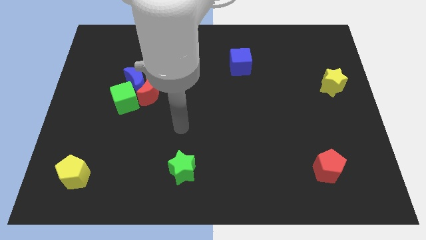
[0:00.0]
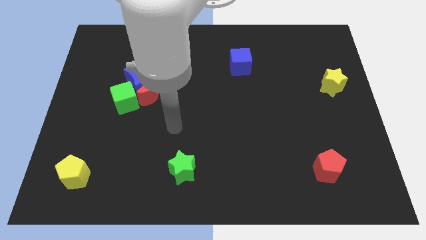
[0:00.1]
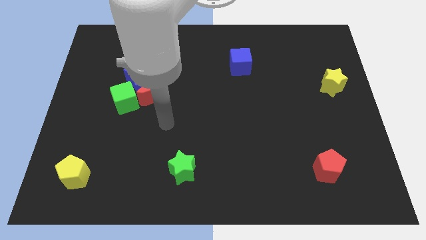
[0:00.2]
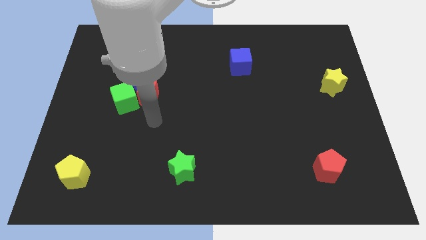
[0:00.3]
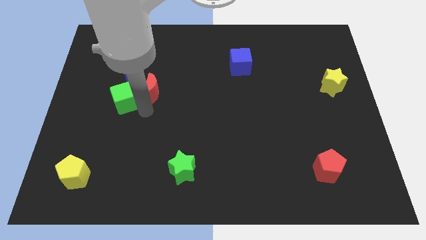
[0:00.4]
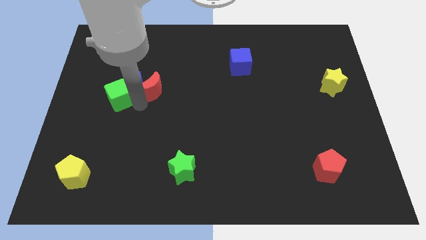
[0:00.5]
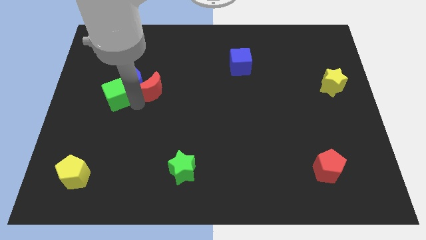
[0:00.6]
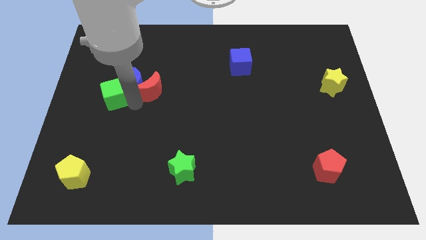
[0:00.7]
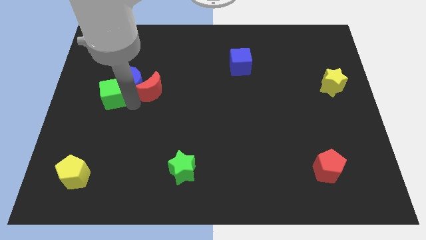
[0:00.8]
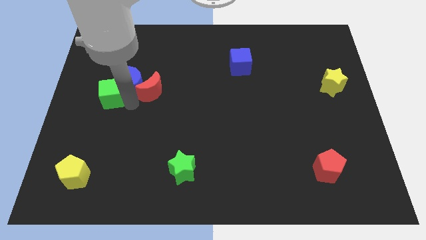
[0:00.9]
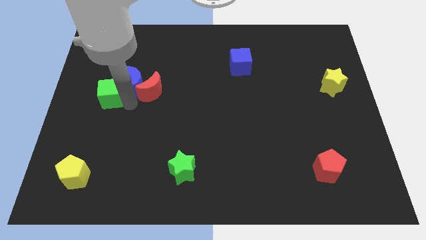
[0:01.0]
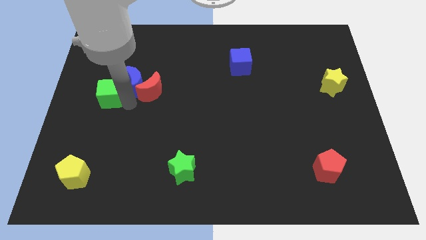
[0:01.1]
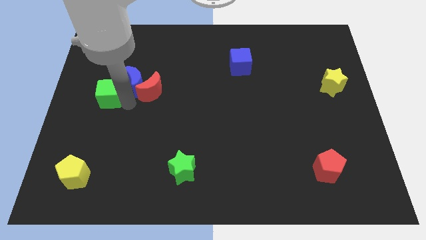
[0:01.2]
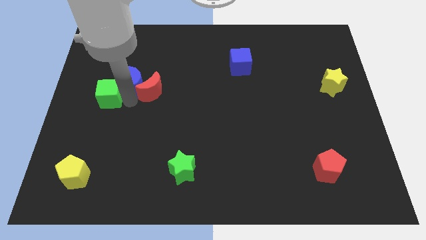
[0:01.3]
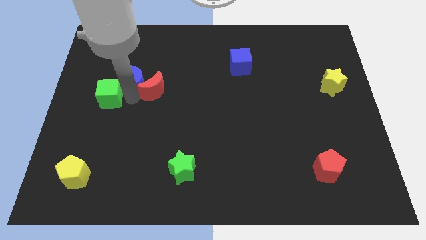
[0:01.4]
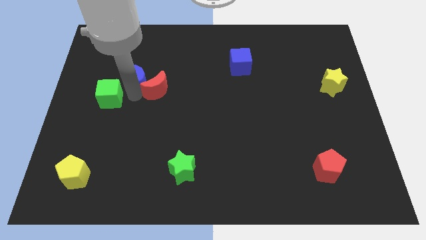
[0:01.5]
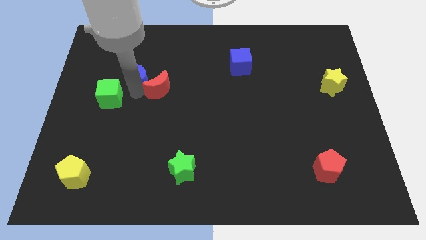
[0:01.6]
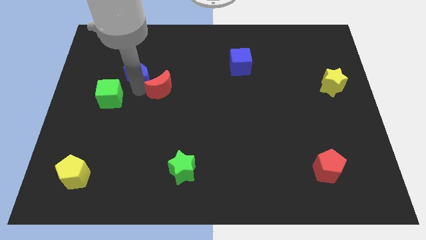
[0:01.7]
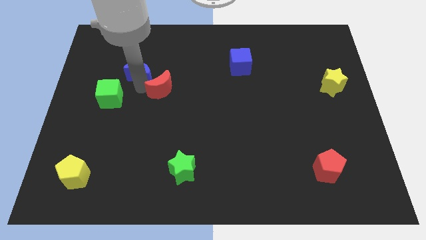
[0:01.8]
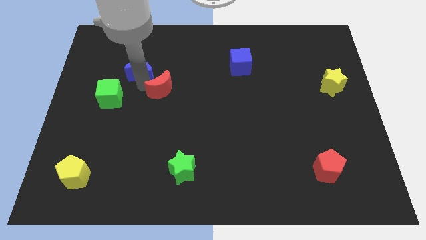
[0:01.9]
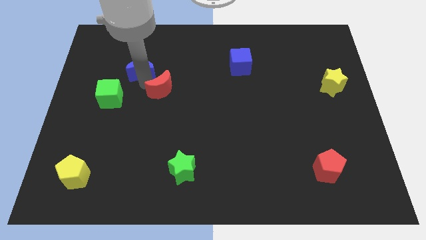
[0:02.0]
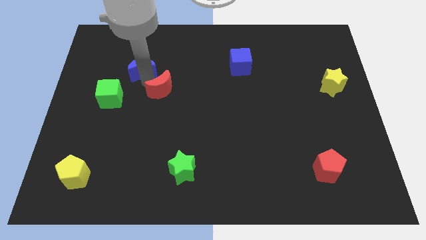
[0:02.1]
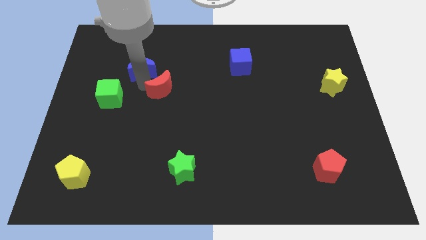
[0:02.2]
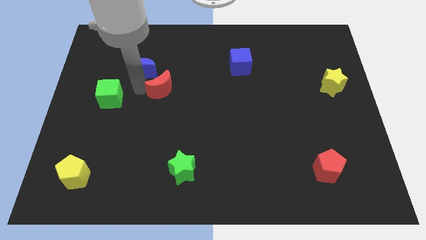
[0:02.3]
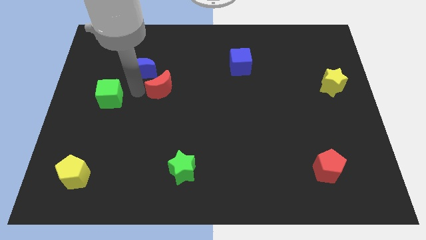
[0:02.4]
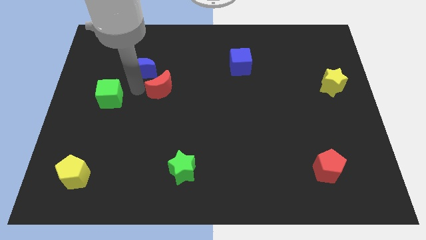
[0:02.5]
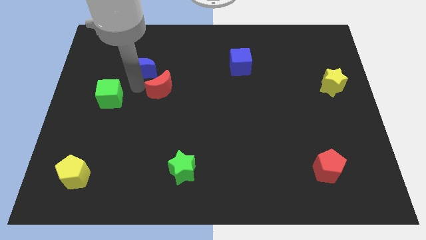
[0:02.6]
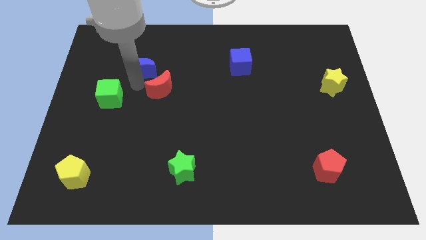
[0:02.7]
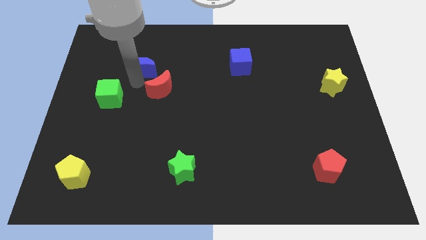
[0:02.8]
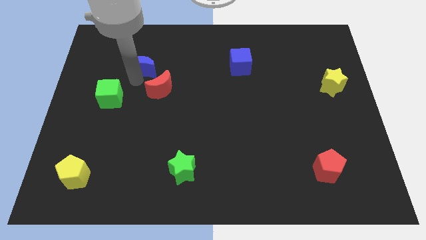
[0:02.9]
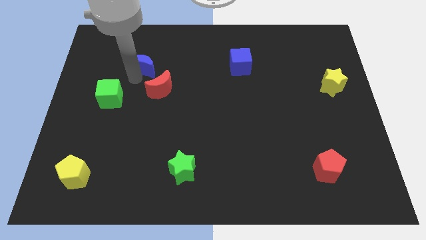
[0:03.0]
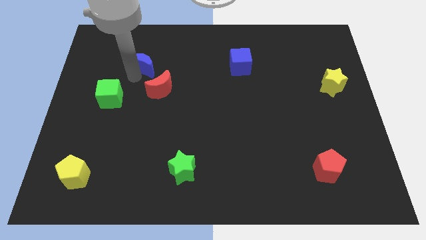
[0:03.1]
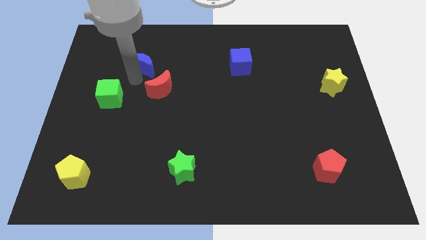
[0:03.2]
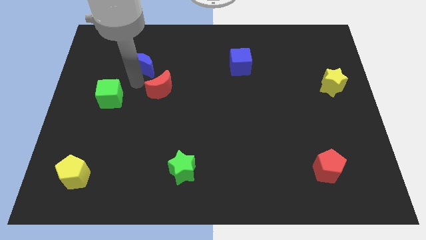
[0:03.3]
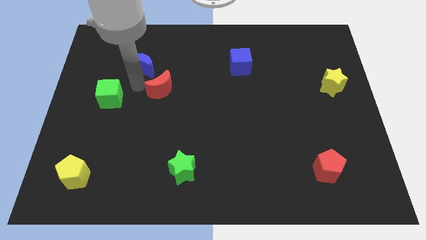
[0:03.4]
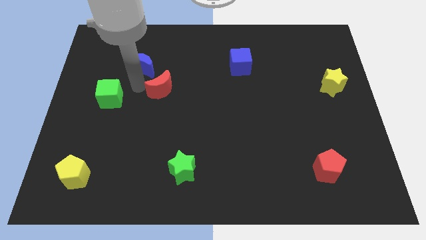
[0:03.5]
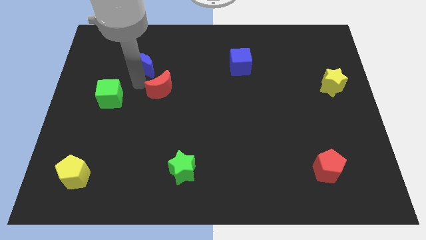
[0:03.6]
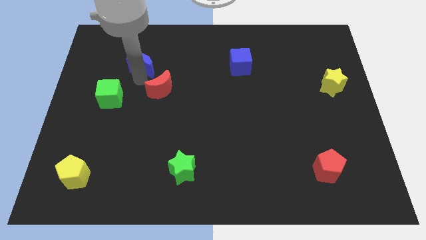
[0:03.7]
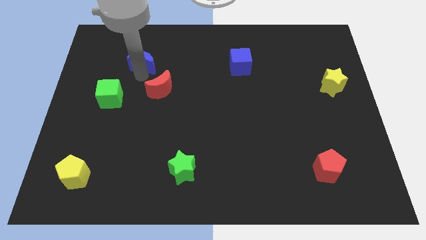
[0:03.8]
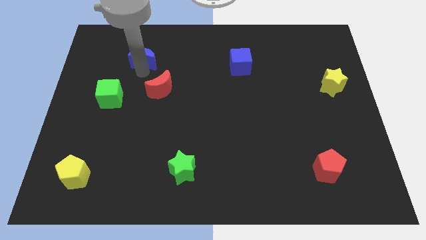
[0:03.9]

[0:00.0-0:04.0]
pull the blue moon apart from the red moon and green cube

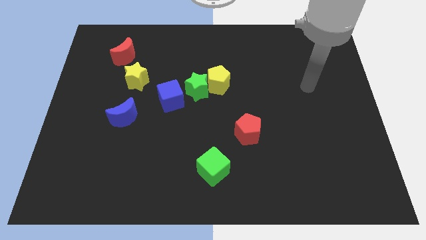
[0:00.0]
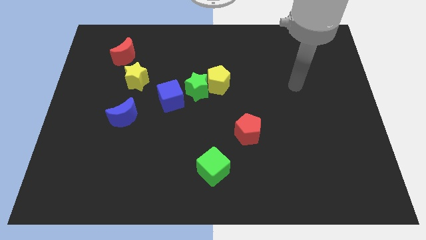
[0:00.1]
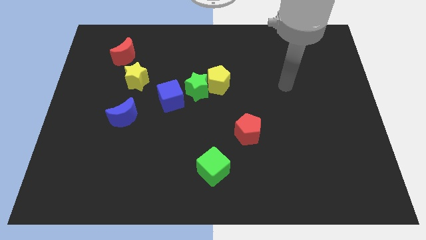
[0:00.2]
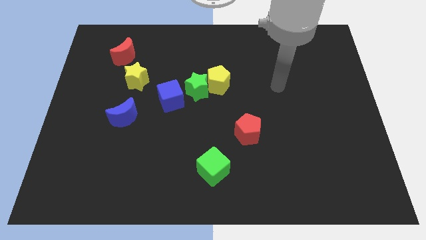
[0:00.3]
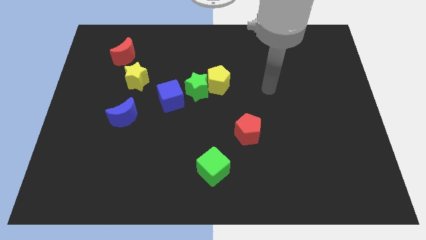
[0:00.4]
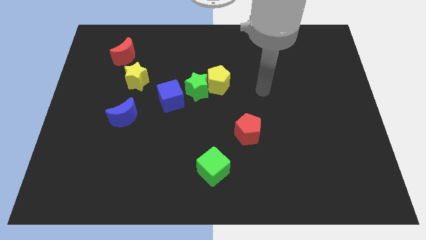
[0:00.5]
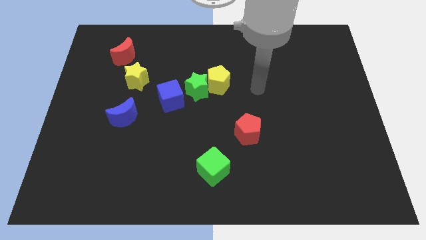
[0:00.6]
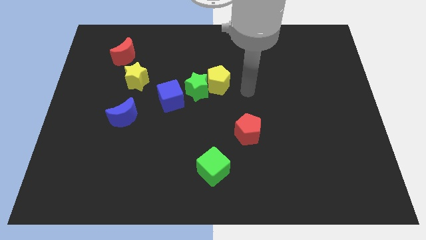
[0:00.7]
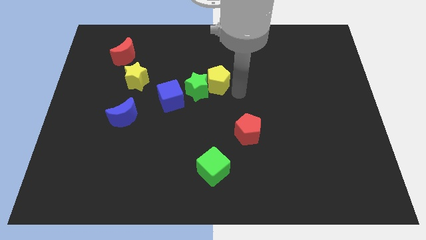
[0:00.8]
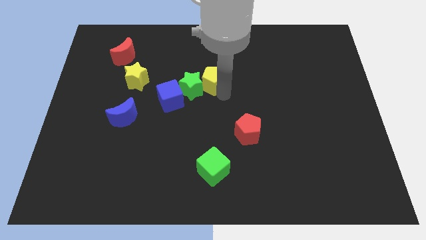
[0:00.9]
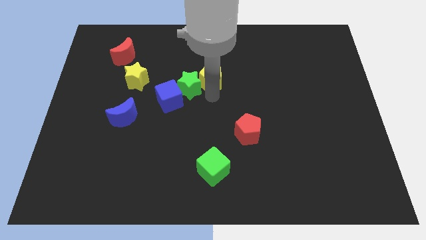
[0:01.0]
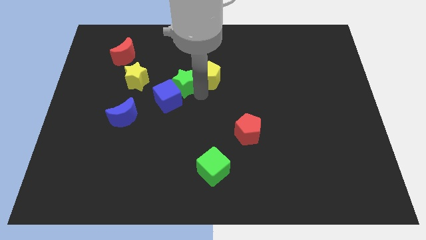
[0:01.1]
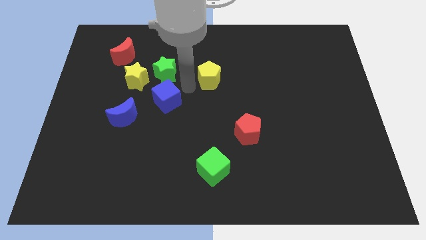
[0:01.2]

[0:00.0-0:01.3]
move the yellow pentagon away from the green star

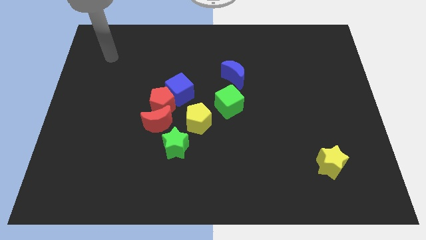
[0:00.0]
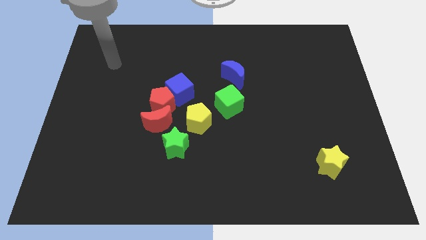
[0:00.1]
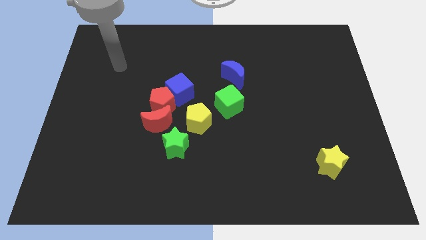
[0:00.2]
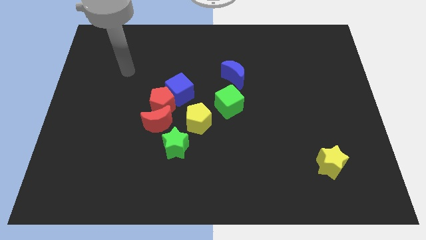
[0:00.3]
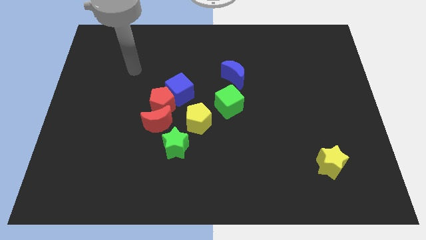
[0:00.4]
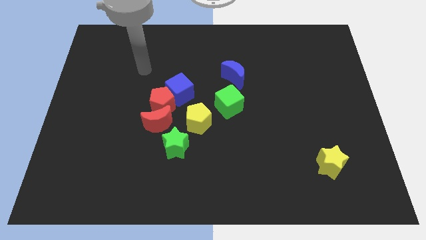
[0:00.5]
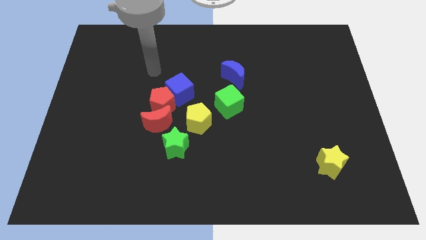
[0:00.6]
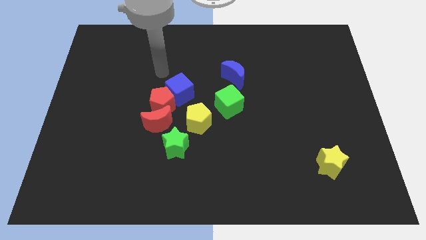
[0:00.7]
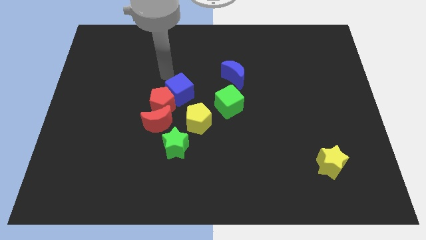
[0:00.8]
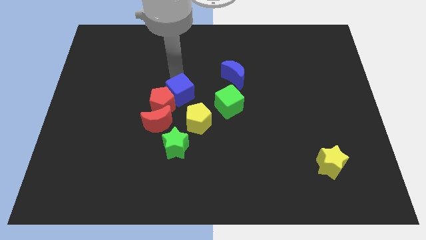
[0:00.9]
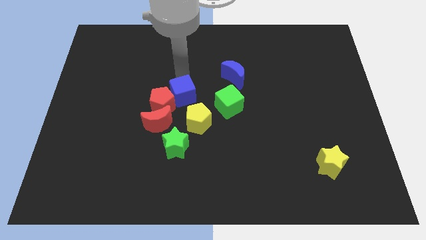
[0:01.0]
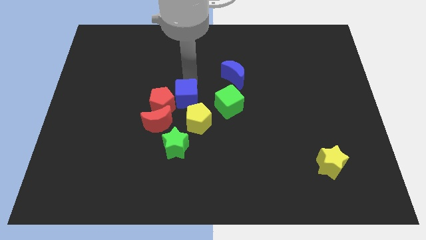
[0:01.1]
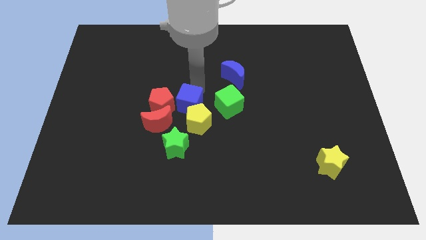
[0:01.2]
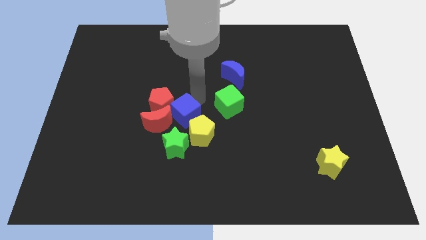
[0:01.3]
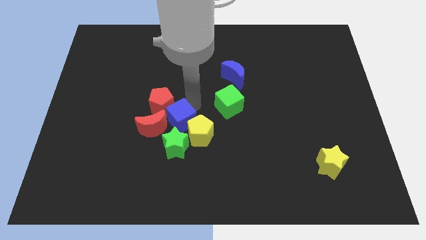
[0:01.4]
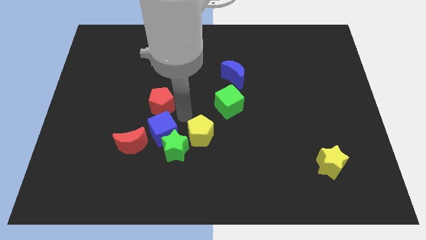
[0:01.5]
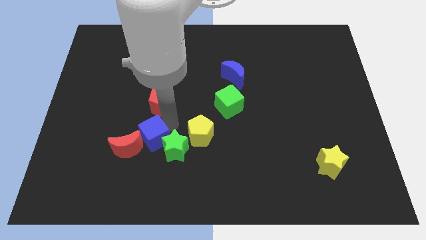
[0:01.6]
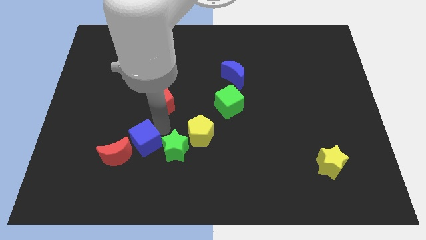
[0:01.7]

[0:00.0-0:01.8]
move the red pentagon away from the clump

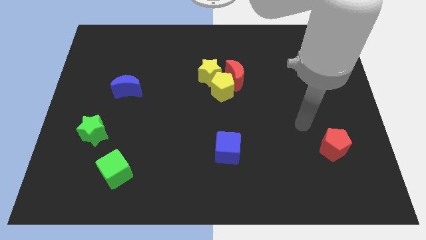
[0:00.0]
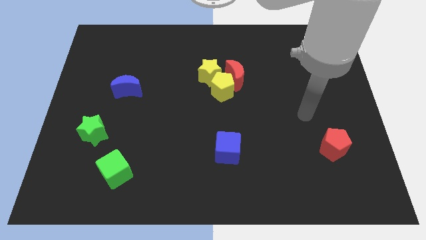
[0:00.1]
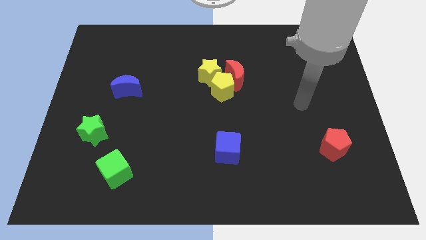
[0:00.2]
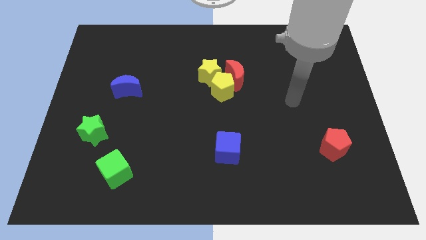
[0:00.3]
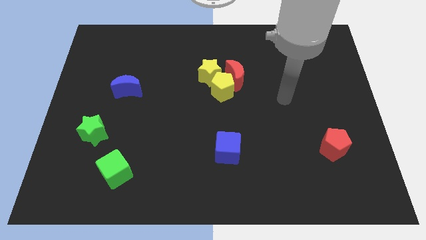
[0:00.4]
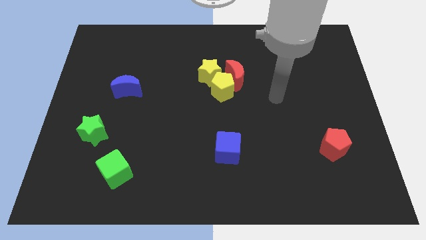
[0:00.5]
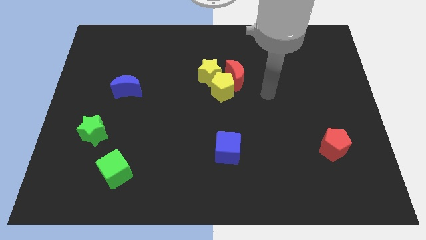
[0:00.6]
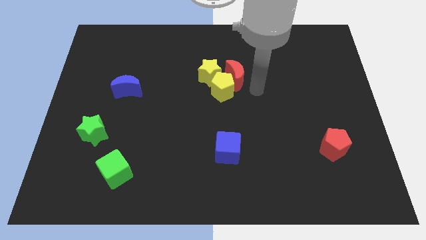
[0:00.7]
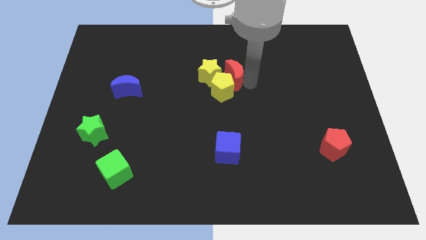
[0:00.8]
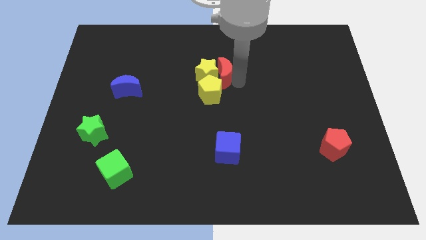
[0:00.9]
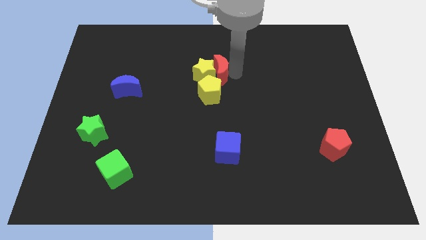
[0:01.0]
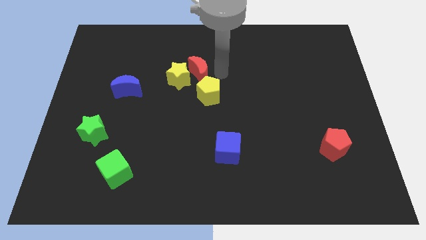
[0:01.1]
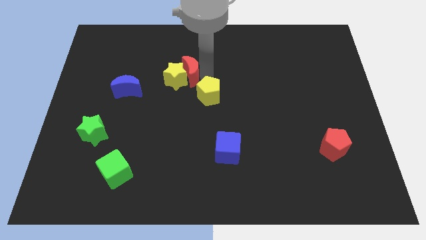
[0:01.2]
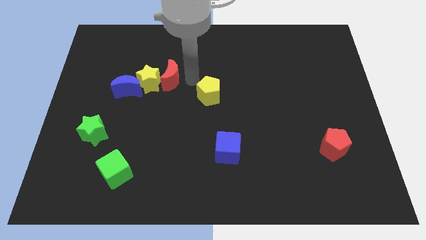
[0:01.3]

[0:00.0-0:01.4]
separate the yellow pentagon from the red moon and yellow star

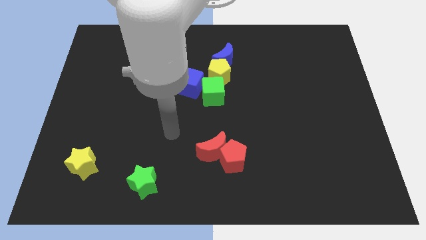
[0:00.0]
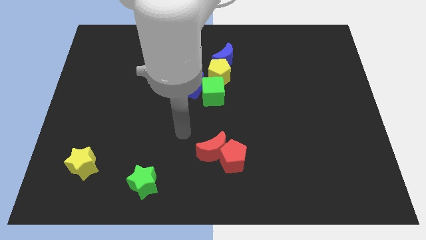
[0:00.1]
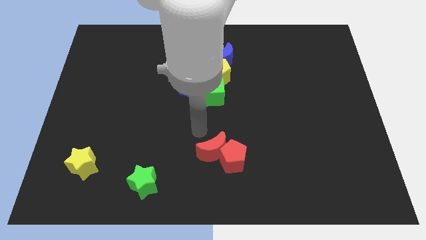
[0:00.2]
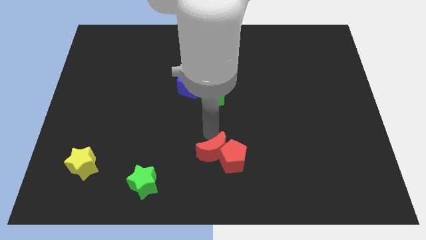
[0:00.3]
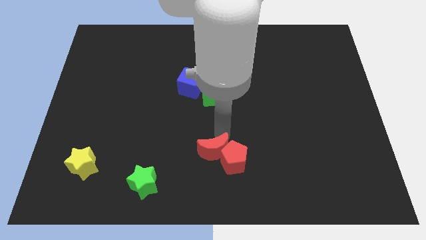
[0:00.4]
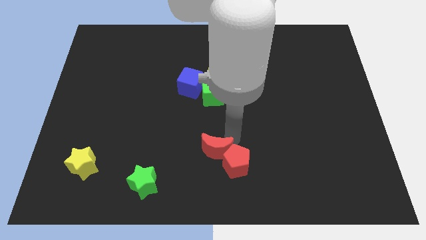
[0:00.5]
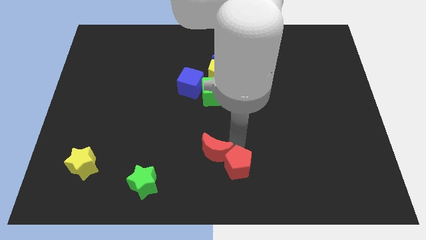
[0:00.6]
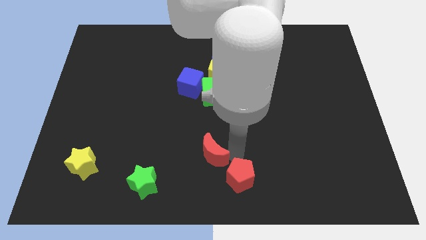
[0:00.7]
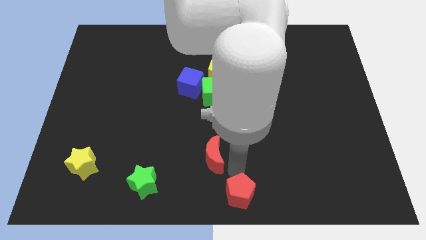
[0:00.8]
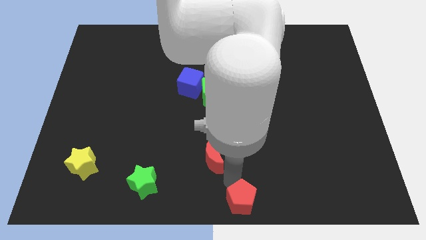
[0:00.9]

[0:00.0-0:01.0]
pull the red moon apart from the red pentagon
